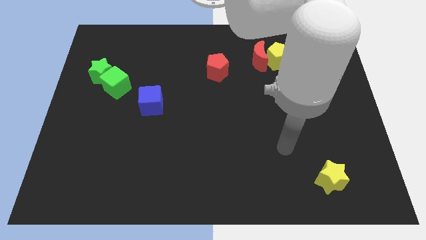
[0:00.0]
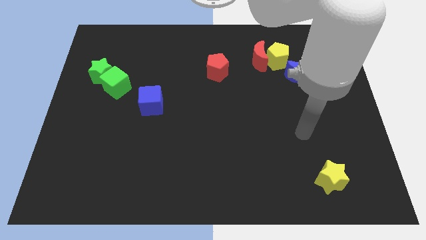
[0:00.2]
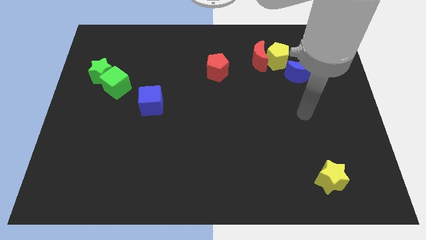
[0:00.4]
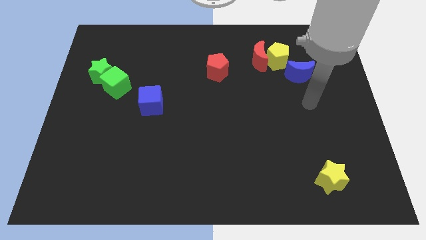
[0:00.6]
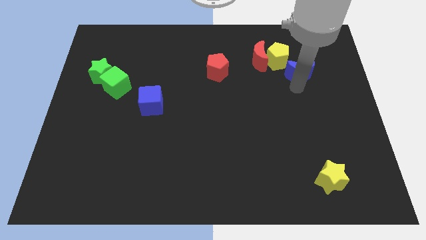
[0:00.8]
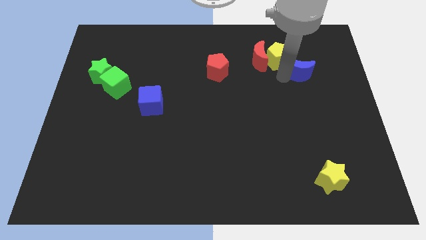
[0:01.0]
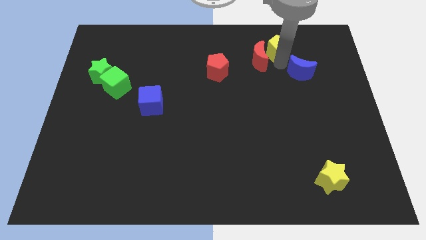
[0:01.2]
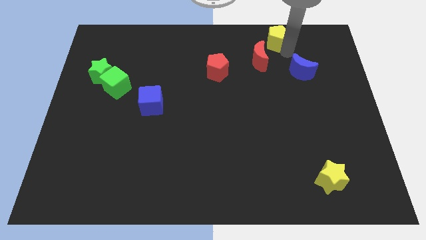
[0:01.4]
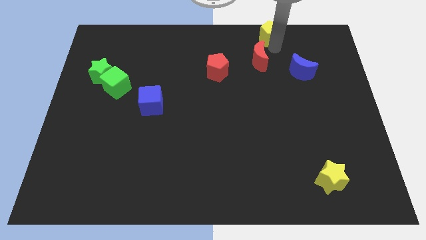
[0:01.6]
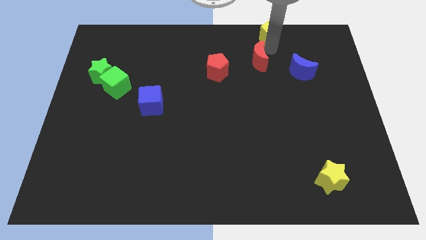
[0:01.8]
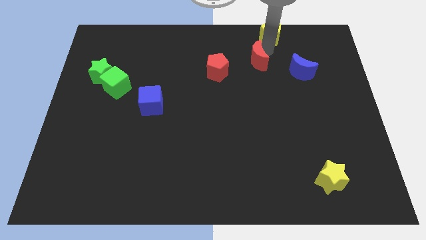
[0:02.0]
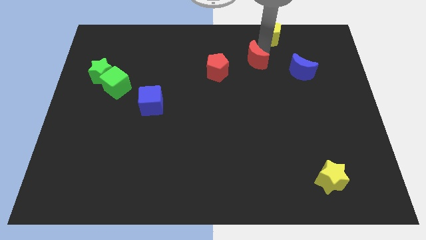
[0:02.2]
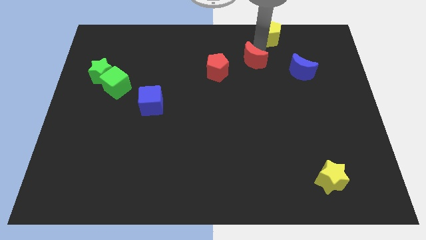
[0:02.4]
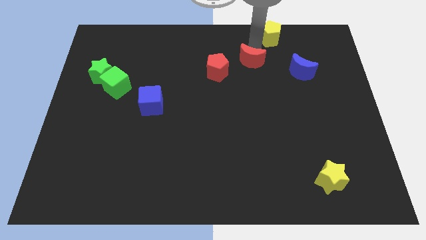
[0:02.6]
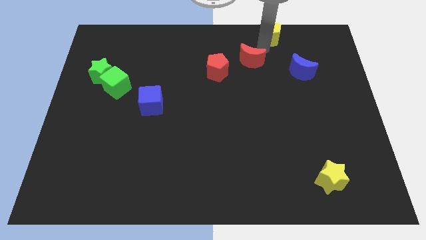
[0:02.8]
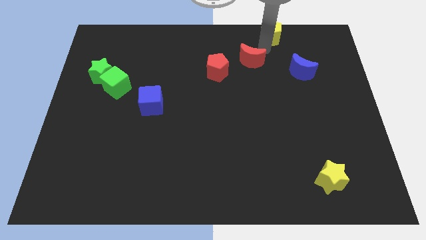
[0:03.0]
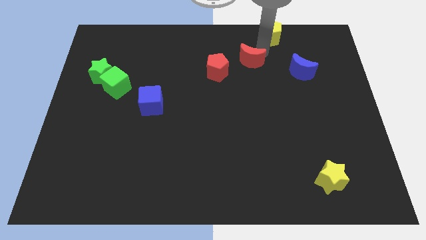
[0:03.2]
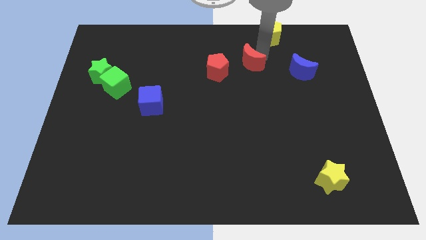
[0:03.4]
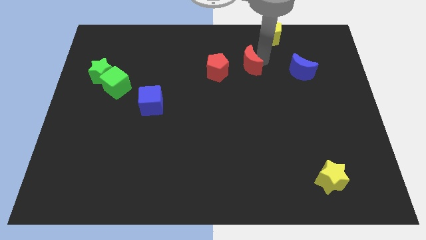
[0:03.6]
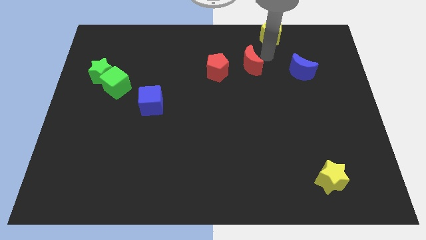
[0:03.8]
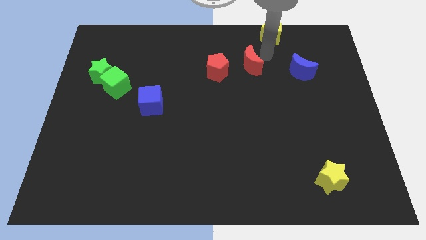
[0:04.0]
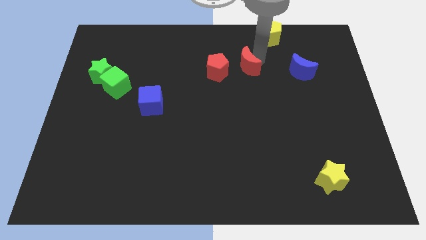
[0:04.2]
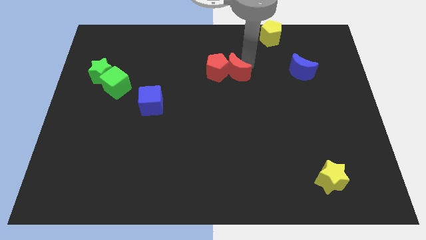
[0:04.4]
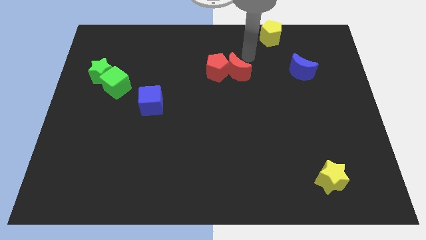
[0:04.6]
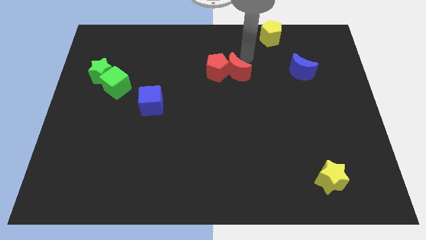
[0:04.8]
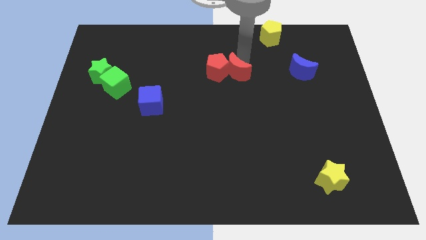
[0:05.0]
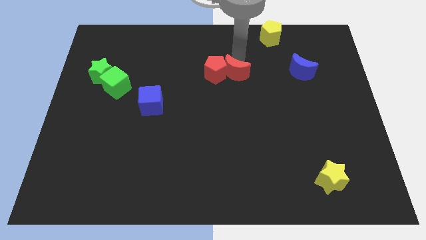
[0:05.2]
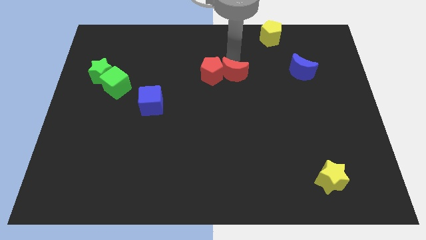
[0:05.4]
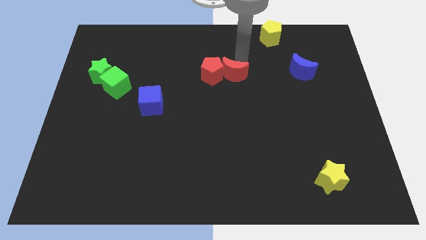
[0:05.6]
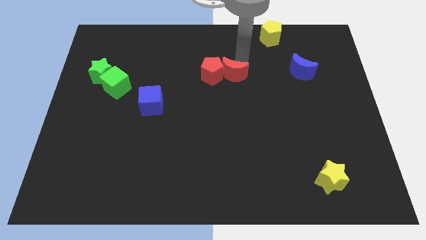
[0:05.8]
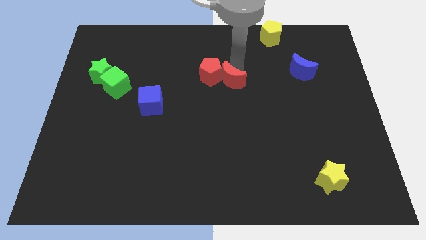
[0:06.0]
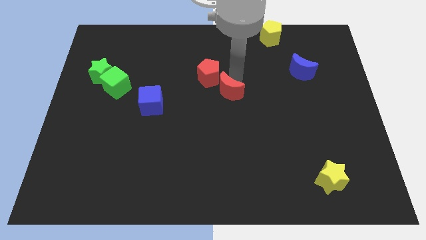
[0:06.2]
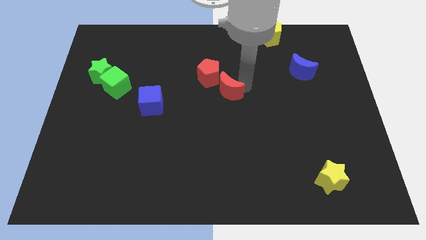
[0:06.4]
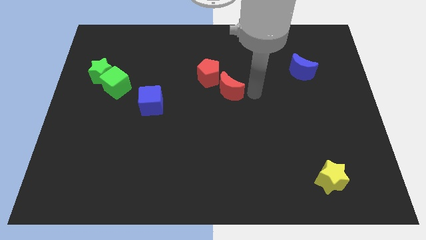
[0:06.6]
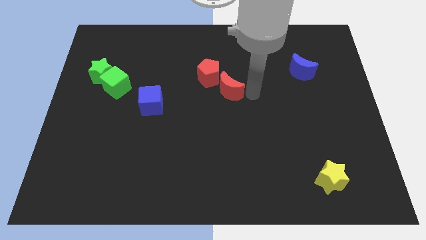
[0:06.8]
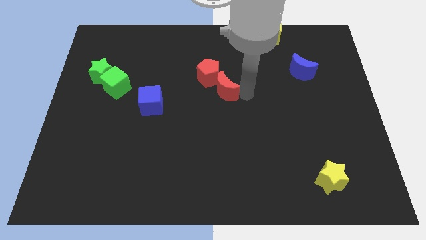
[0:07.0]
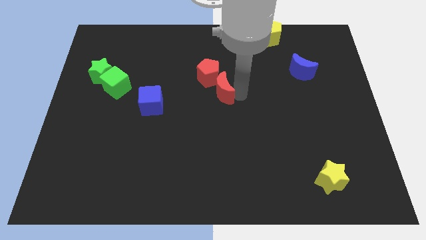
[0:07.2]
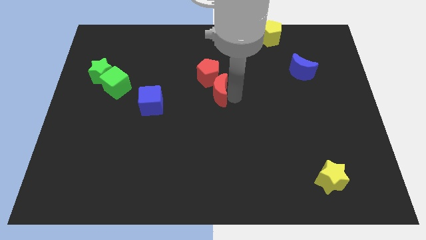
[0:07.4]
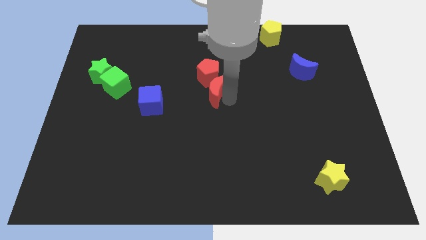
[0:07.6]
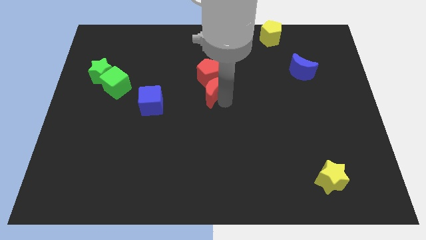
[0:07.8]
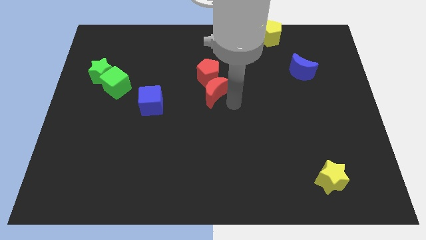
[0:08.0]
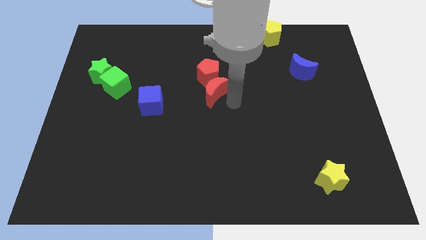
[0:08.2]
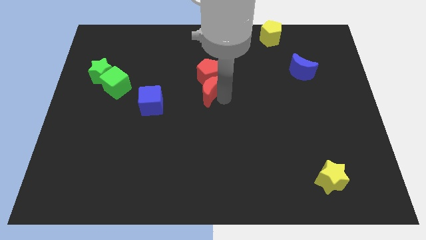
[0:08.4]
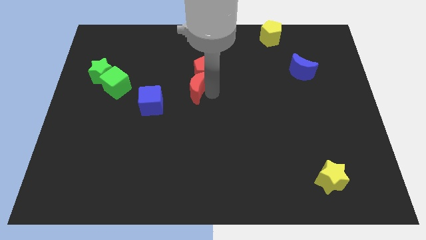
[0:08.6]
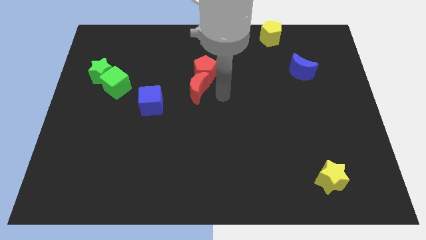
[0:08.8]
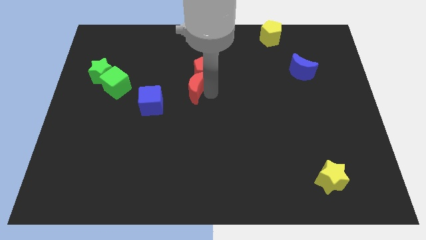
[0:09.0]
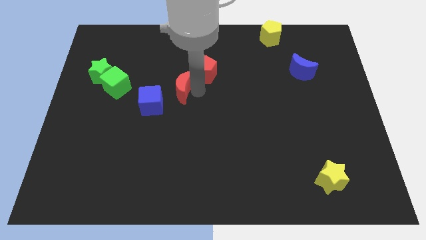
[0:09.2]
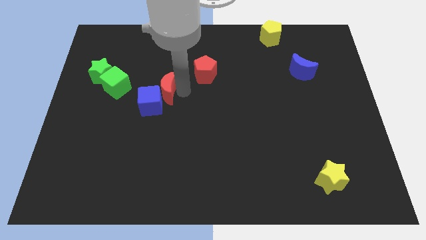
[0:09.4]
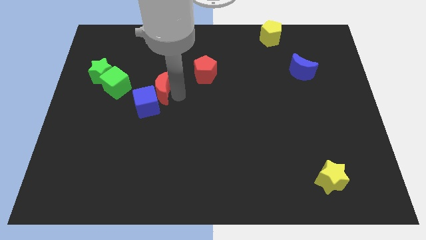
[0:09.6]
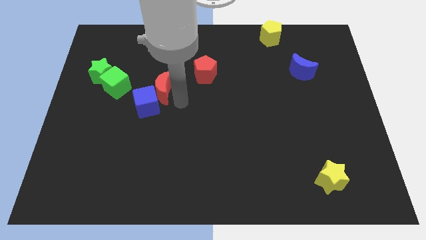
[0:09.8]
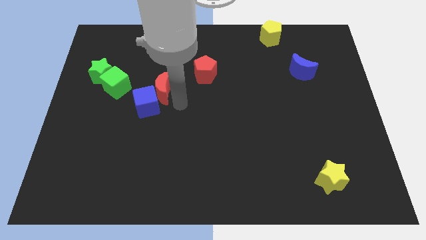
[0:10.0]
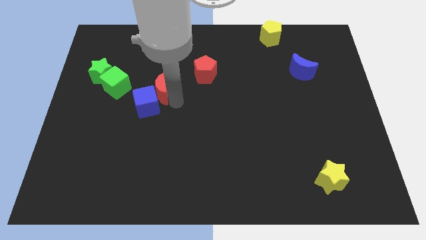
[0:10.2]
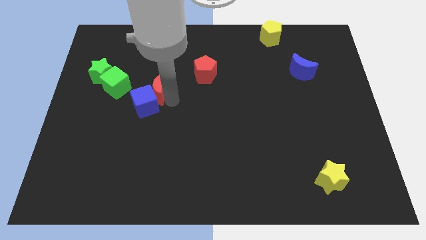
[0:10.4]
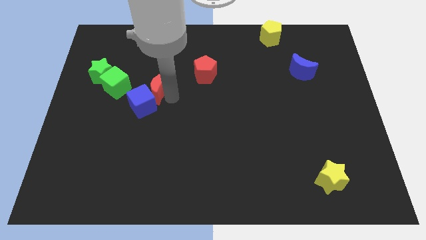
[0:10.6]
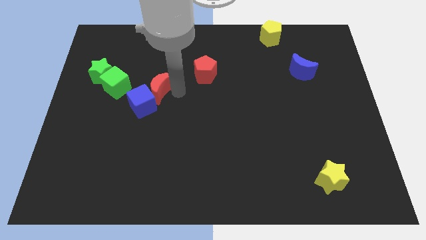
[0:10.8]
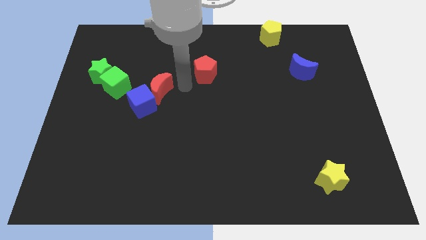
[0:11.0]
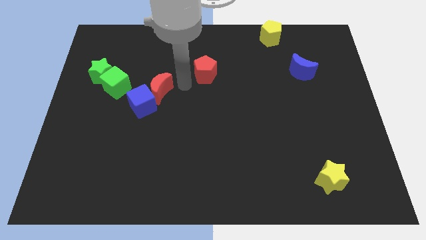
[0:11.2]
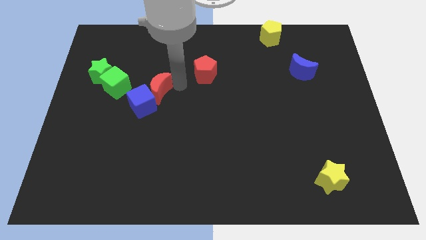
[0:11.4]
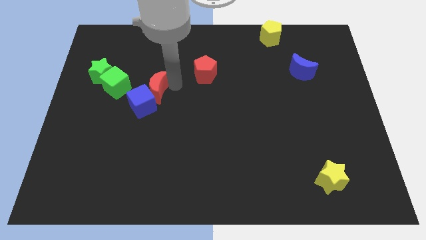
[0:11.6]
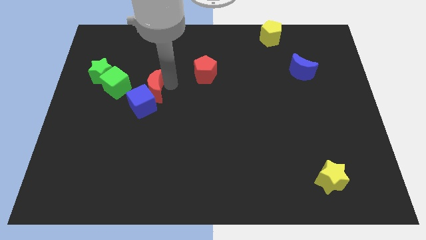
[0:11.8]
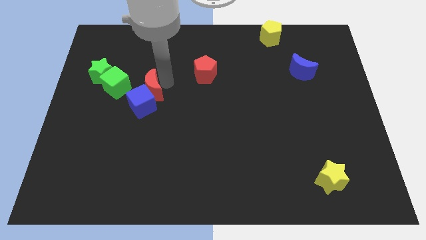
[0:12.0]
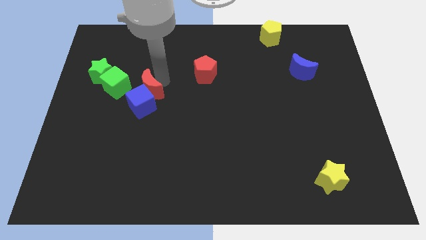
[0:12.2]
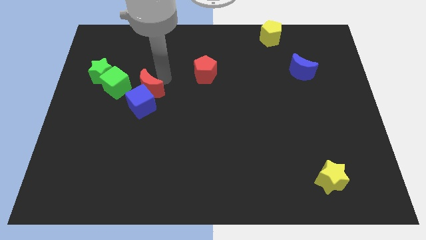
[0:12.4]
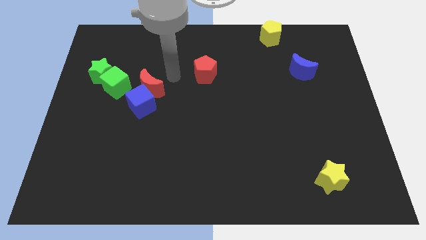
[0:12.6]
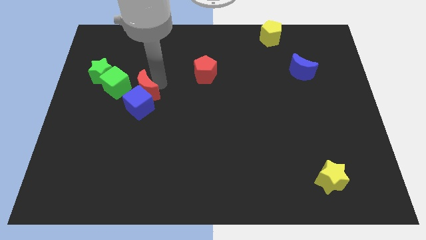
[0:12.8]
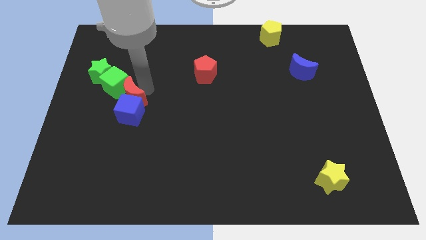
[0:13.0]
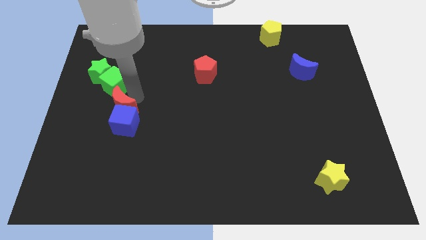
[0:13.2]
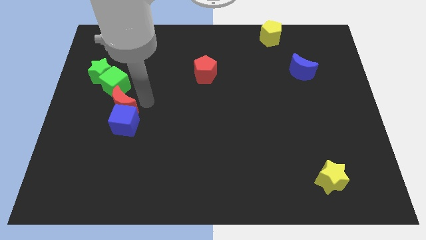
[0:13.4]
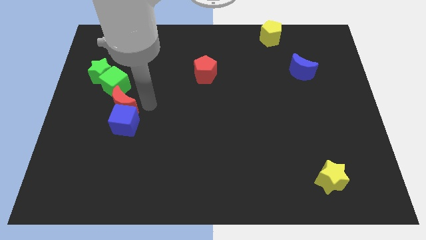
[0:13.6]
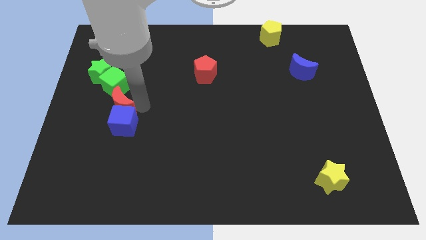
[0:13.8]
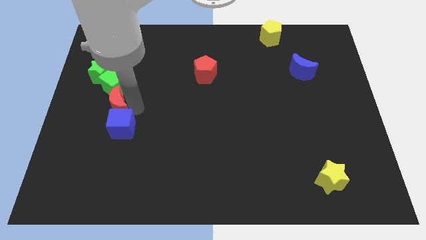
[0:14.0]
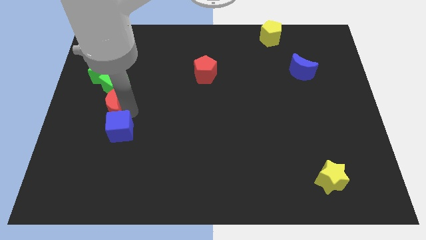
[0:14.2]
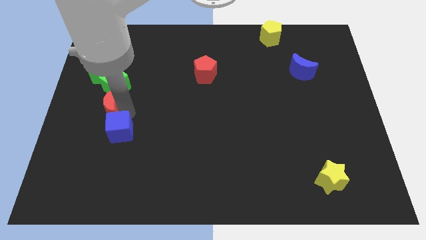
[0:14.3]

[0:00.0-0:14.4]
slide the red moon below the green star
